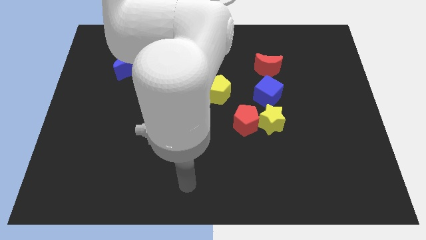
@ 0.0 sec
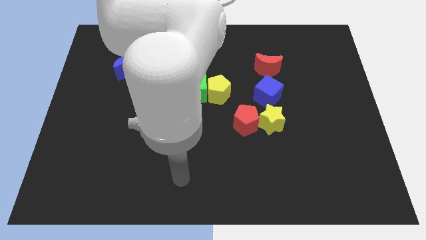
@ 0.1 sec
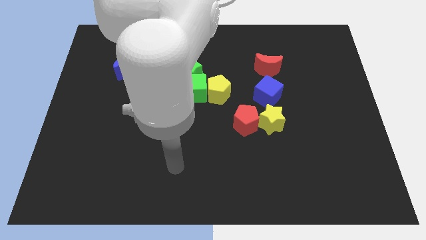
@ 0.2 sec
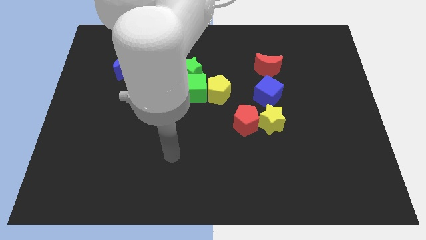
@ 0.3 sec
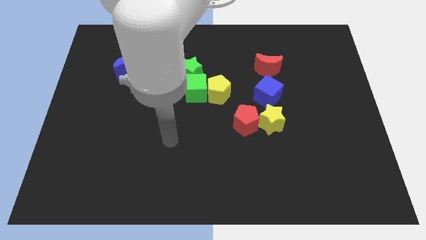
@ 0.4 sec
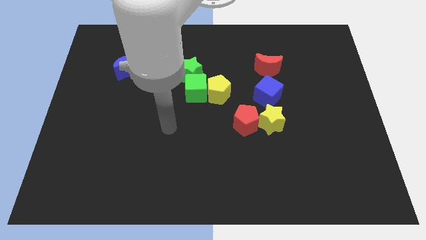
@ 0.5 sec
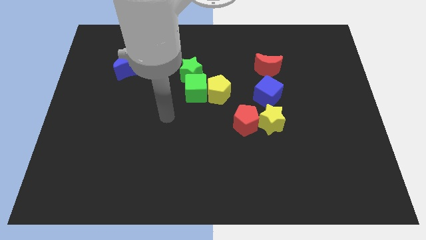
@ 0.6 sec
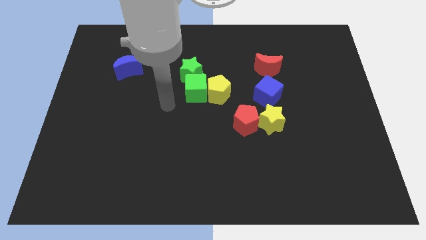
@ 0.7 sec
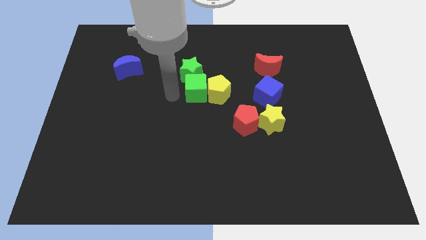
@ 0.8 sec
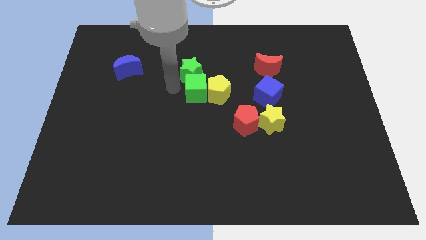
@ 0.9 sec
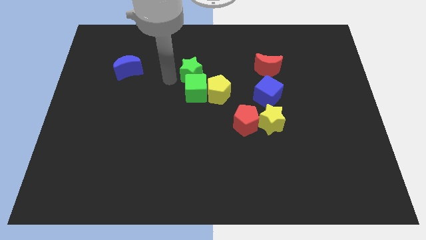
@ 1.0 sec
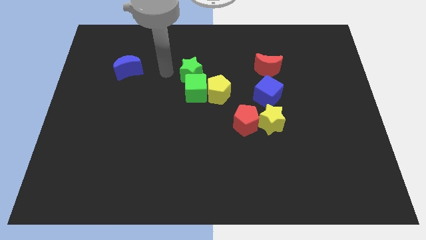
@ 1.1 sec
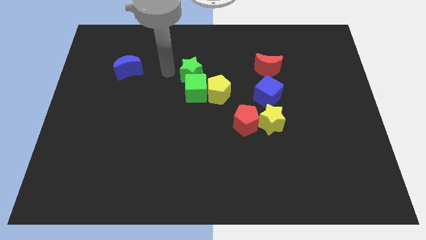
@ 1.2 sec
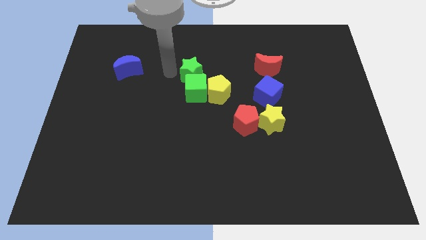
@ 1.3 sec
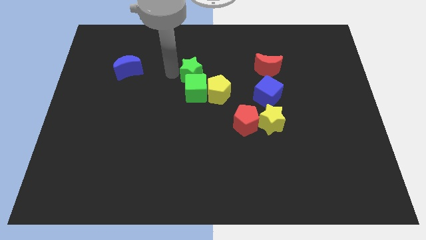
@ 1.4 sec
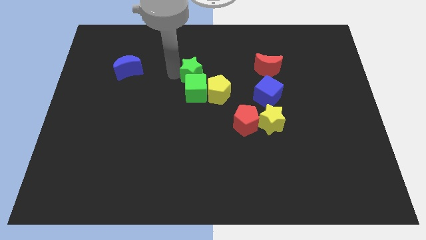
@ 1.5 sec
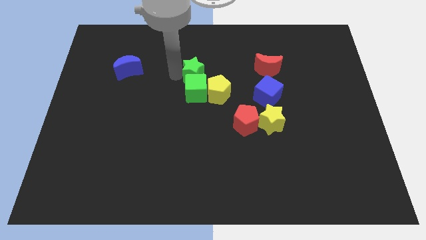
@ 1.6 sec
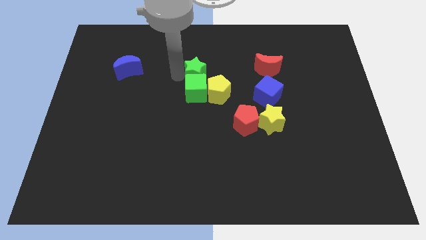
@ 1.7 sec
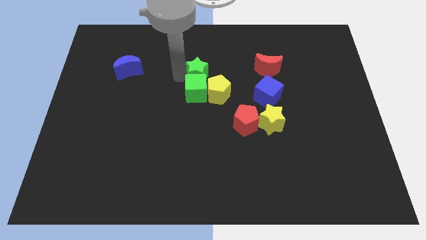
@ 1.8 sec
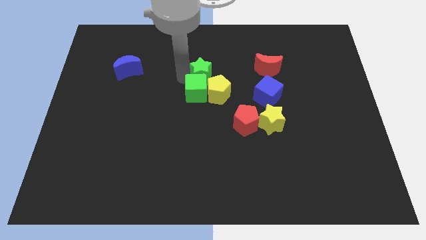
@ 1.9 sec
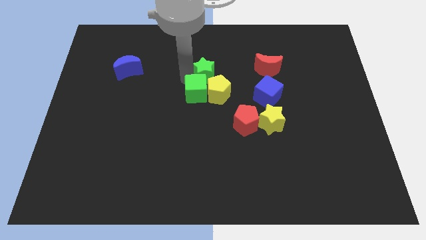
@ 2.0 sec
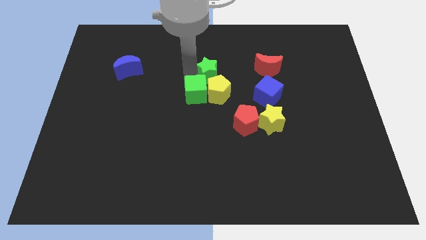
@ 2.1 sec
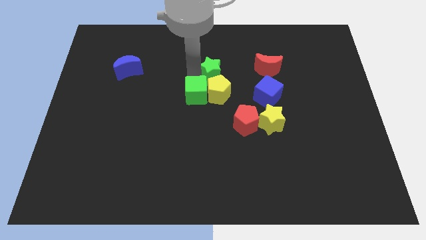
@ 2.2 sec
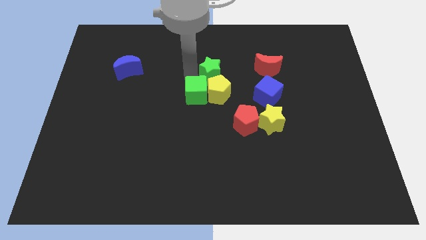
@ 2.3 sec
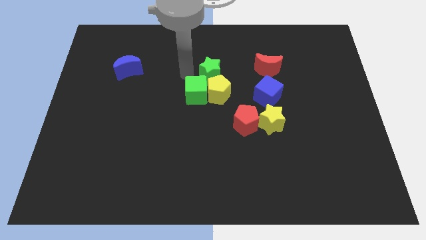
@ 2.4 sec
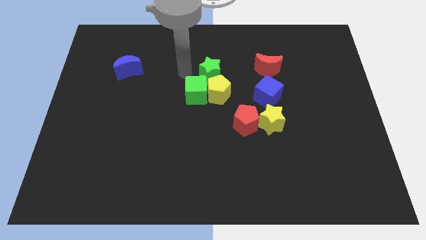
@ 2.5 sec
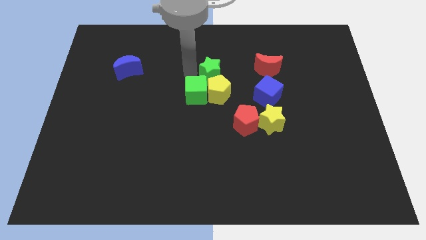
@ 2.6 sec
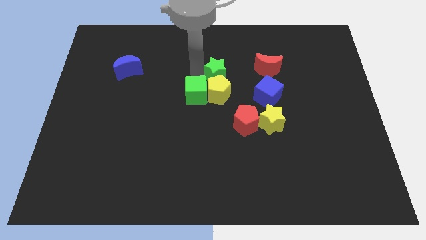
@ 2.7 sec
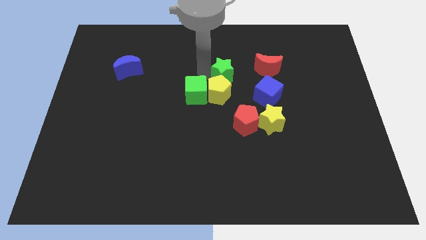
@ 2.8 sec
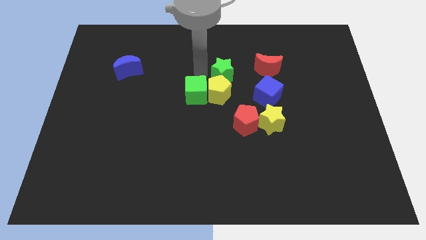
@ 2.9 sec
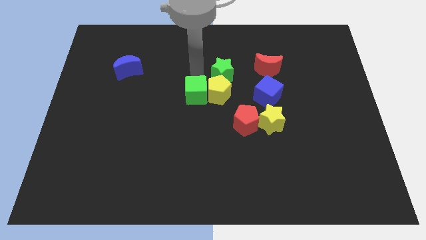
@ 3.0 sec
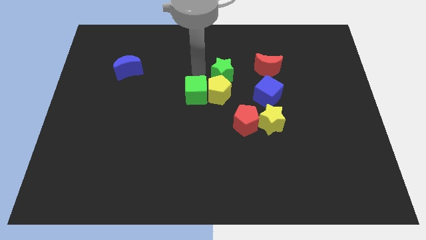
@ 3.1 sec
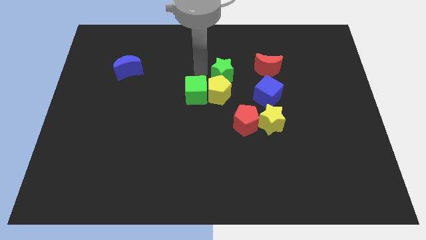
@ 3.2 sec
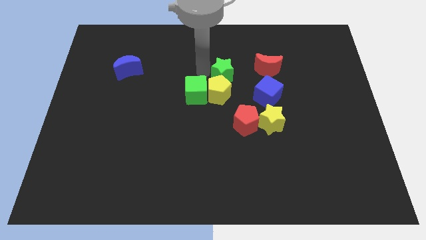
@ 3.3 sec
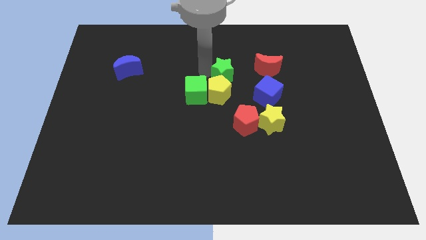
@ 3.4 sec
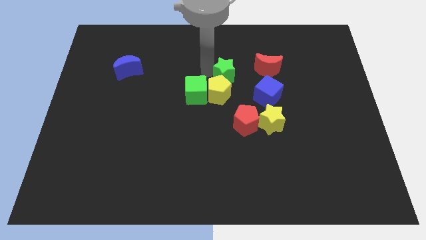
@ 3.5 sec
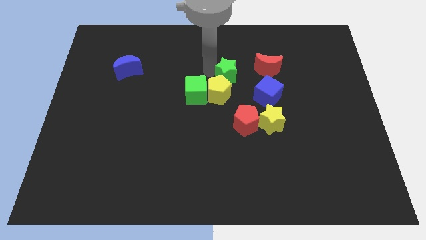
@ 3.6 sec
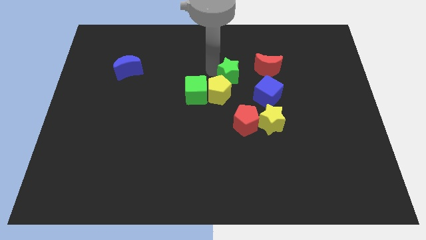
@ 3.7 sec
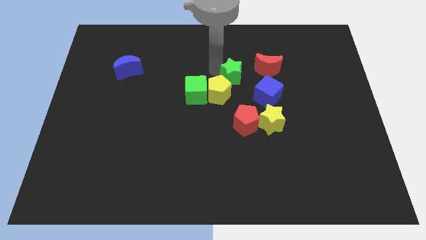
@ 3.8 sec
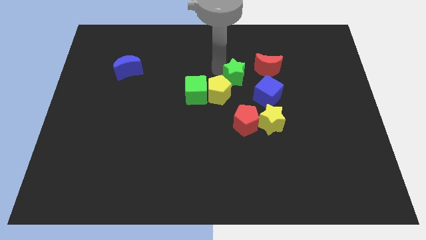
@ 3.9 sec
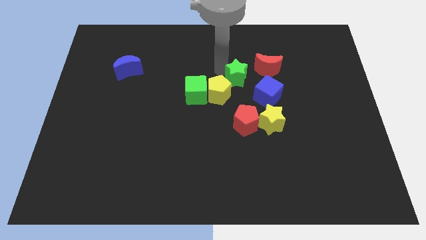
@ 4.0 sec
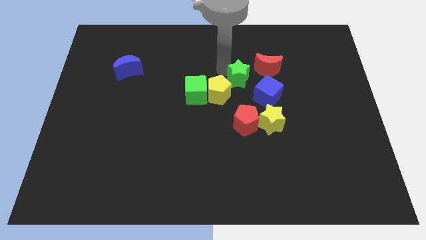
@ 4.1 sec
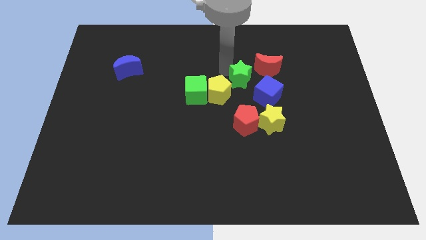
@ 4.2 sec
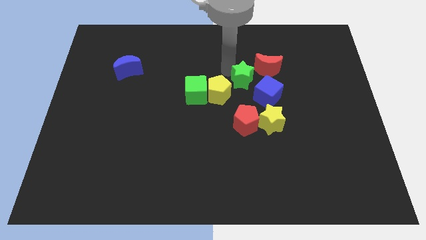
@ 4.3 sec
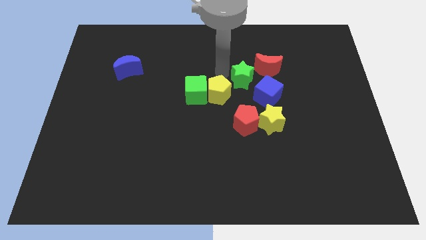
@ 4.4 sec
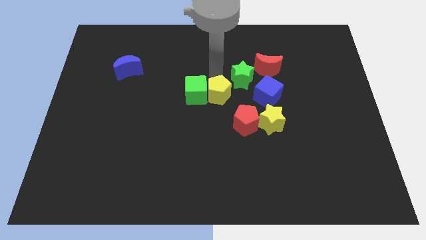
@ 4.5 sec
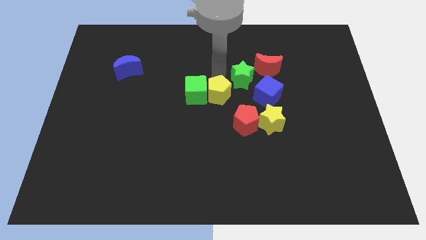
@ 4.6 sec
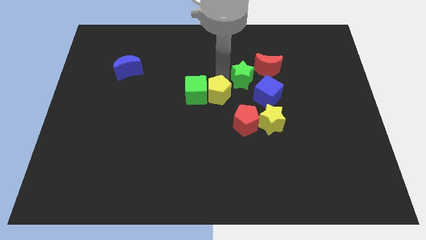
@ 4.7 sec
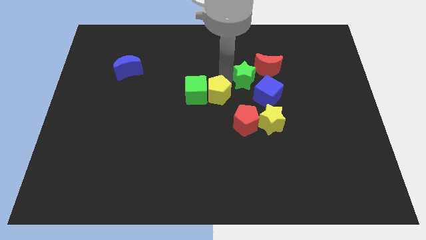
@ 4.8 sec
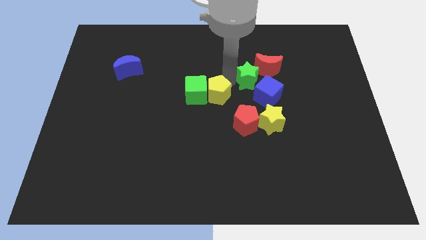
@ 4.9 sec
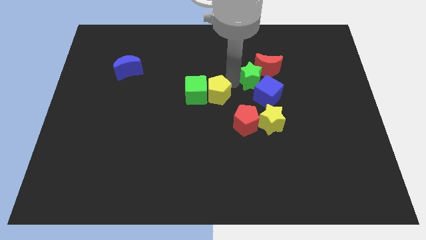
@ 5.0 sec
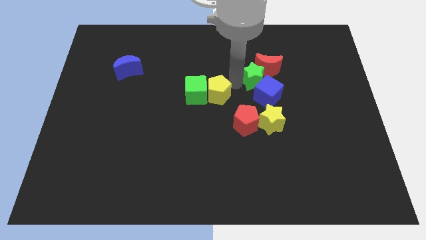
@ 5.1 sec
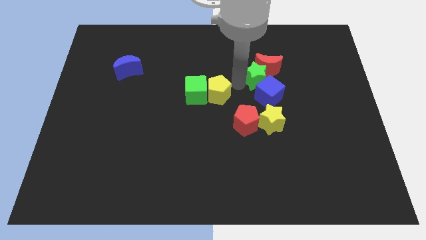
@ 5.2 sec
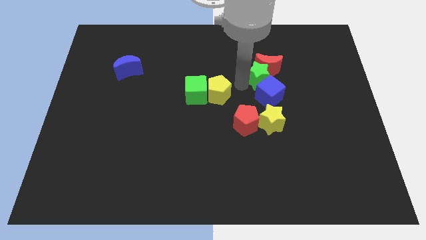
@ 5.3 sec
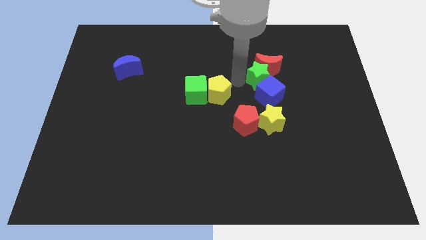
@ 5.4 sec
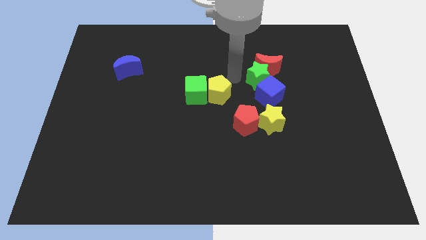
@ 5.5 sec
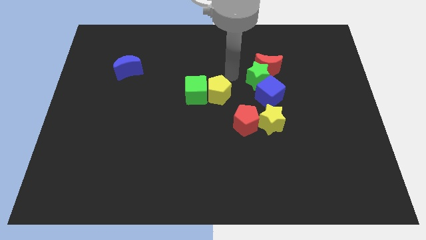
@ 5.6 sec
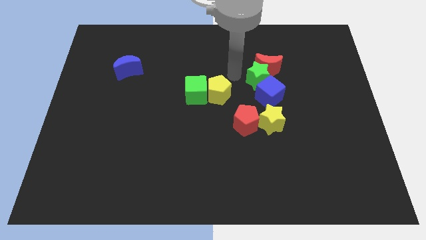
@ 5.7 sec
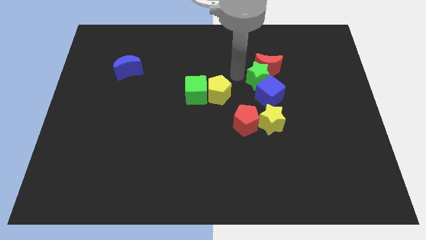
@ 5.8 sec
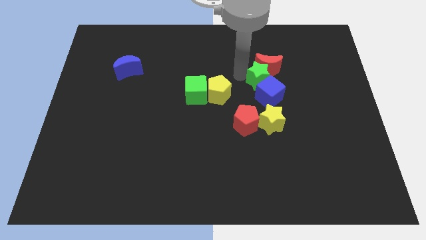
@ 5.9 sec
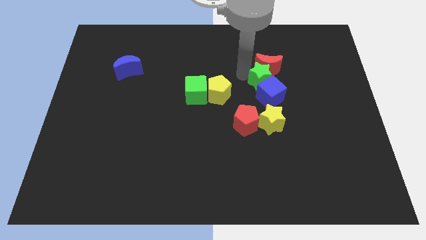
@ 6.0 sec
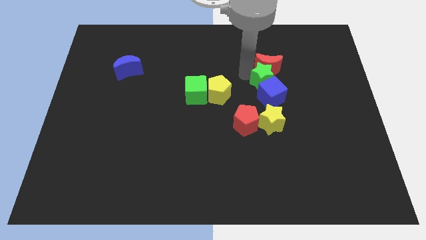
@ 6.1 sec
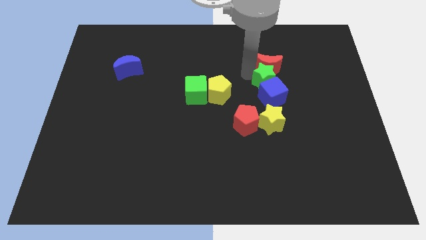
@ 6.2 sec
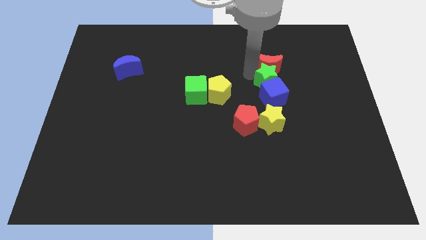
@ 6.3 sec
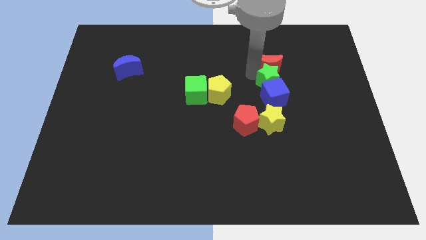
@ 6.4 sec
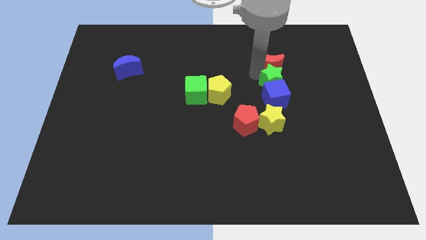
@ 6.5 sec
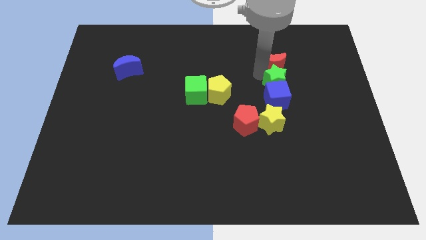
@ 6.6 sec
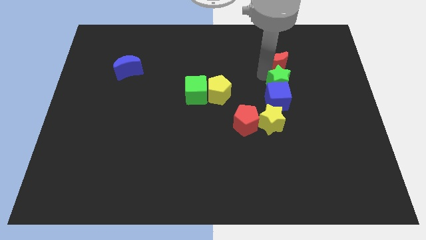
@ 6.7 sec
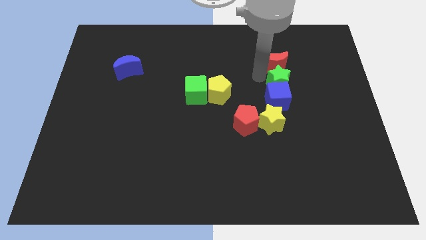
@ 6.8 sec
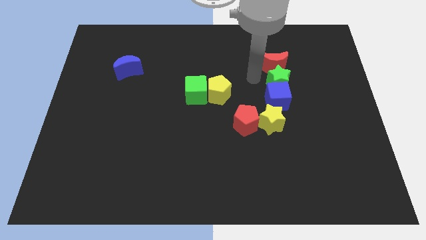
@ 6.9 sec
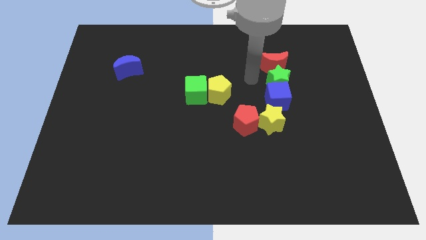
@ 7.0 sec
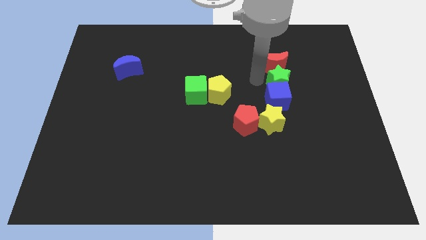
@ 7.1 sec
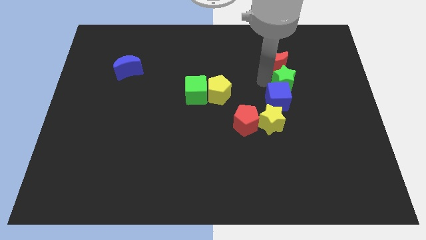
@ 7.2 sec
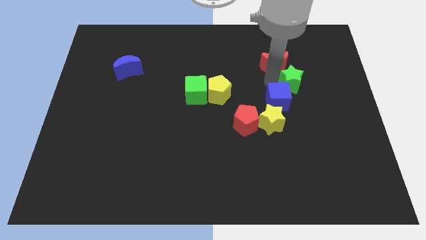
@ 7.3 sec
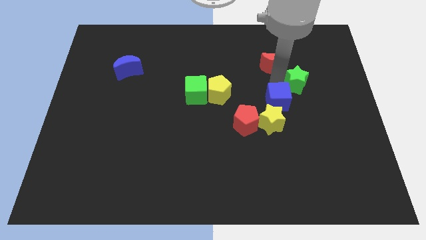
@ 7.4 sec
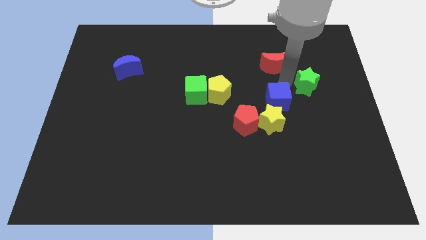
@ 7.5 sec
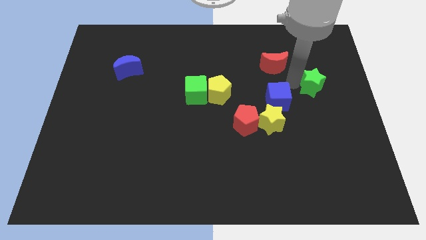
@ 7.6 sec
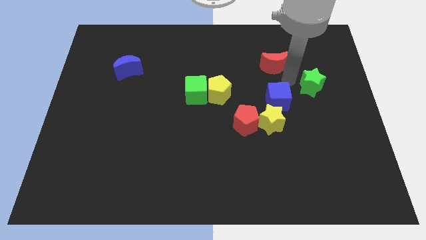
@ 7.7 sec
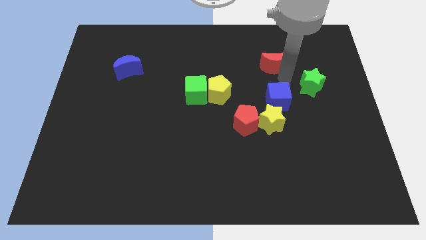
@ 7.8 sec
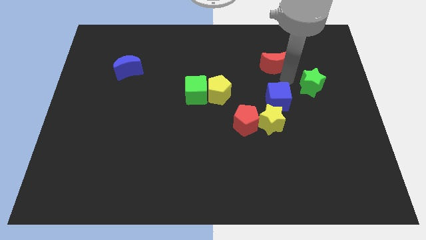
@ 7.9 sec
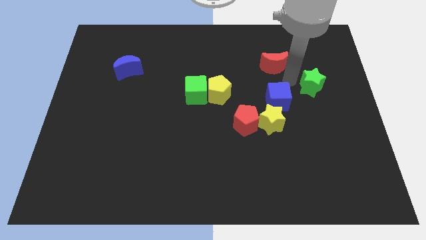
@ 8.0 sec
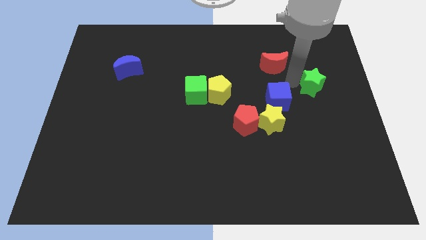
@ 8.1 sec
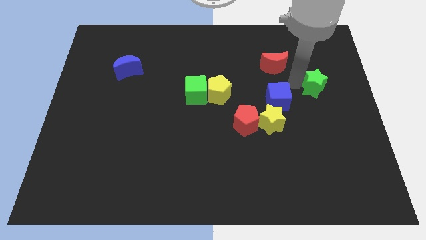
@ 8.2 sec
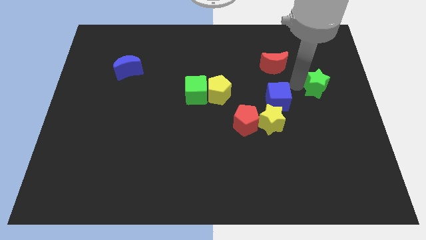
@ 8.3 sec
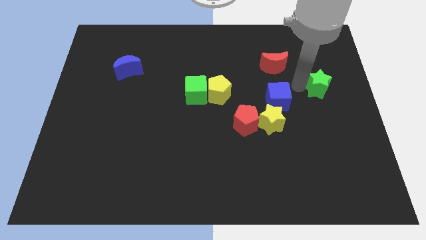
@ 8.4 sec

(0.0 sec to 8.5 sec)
push the green star to the right side
